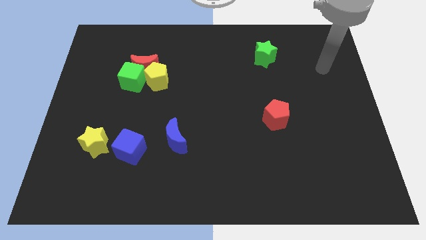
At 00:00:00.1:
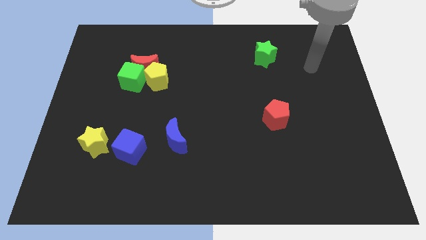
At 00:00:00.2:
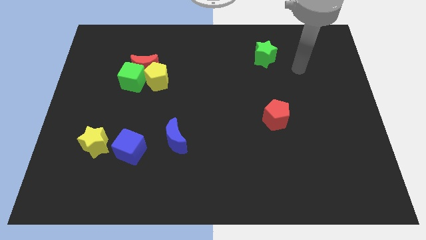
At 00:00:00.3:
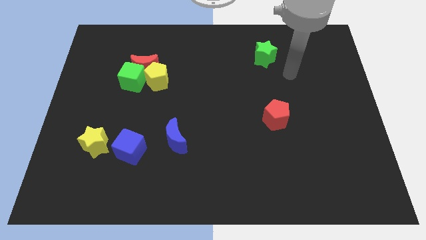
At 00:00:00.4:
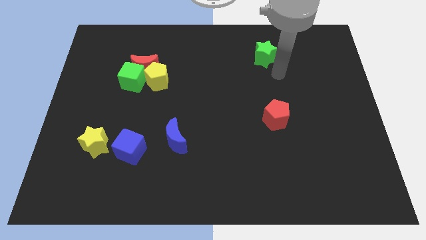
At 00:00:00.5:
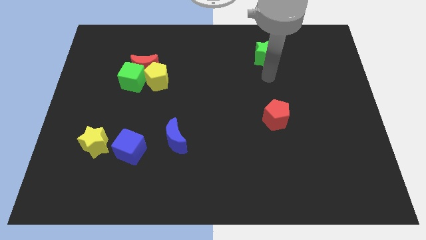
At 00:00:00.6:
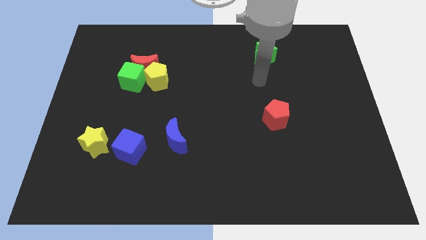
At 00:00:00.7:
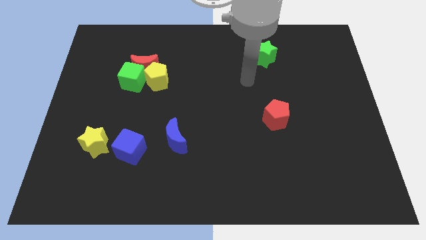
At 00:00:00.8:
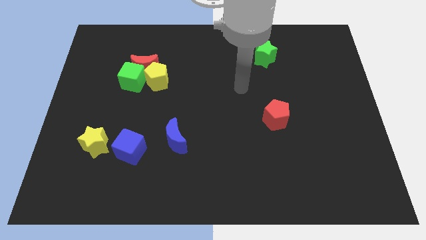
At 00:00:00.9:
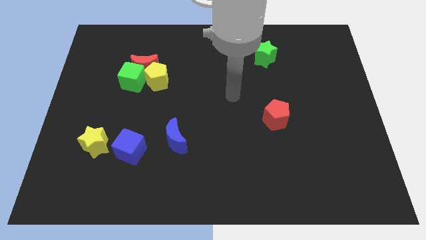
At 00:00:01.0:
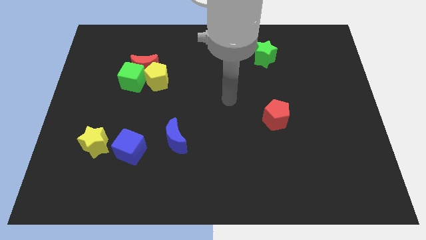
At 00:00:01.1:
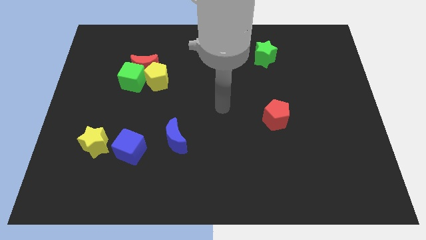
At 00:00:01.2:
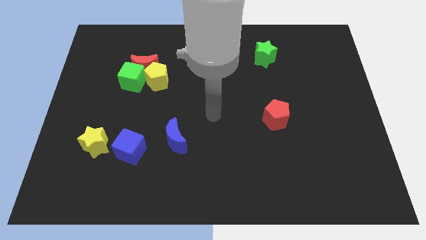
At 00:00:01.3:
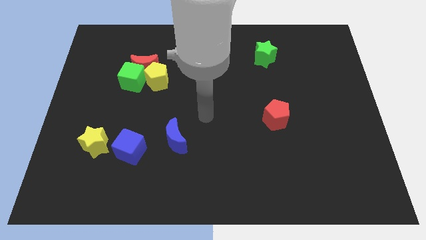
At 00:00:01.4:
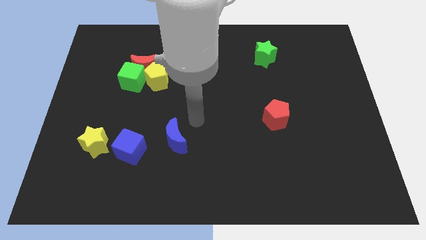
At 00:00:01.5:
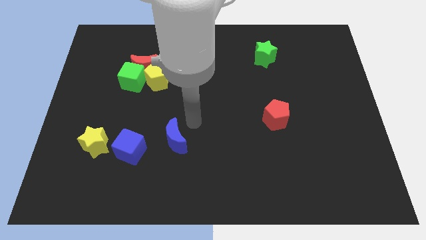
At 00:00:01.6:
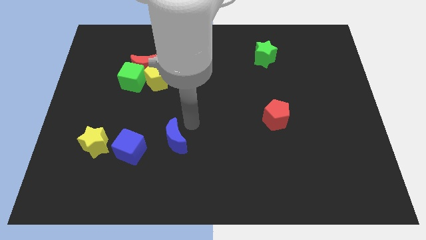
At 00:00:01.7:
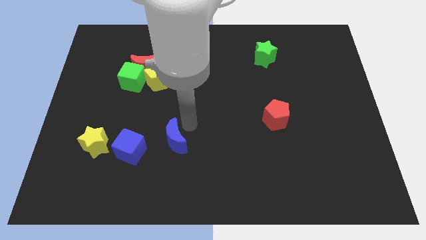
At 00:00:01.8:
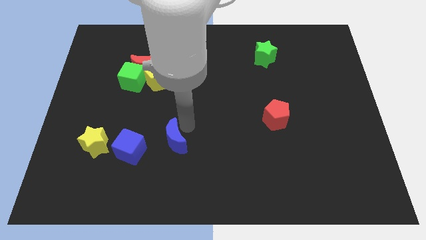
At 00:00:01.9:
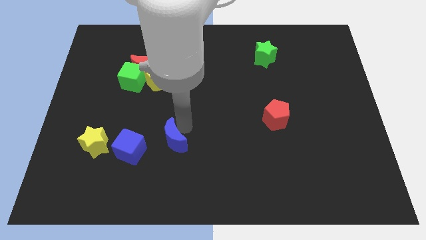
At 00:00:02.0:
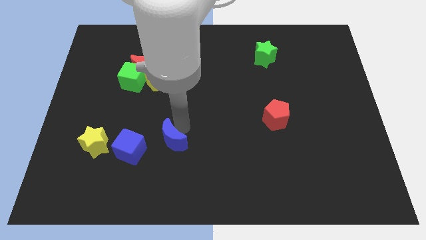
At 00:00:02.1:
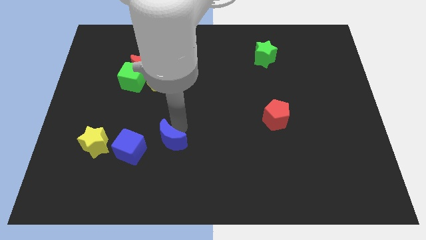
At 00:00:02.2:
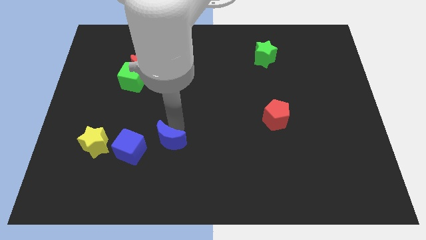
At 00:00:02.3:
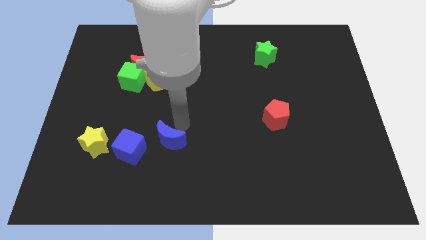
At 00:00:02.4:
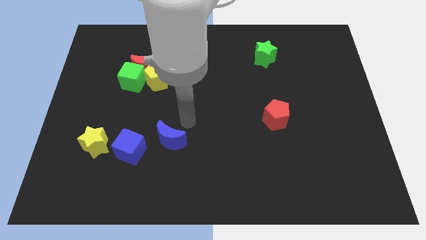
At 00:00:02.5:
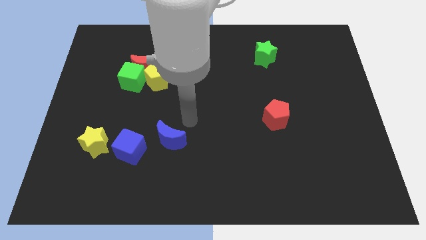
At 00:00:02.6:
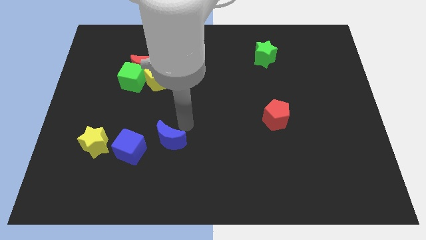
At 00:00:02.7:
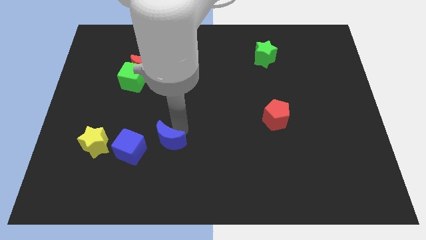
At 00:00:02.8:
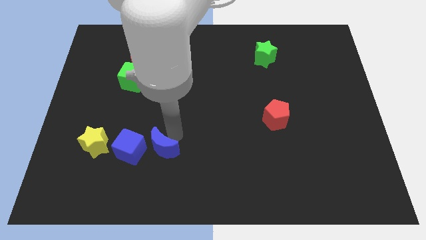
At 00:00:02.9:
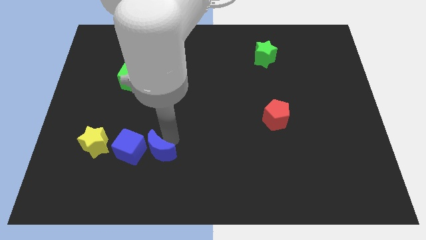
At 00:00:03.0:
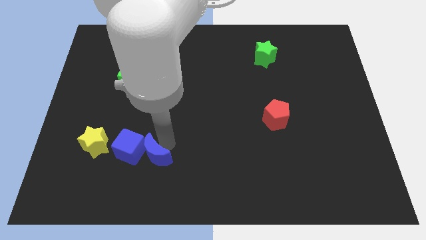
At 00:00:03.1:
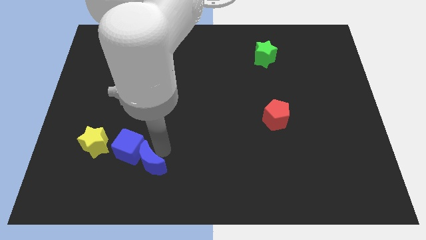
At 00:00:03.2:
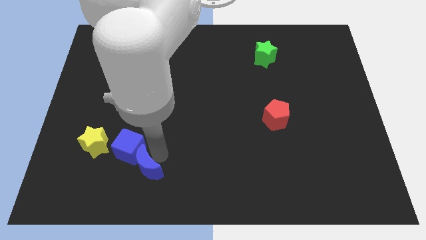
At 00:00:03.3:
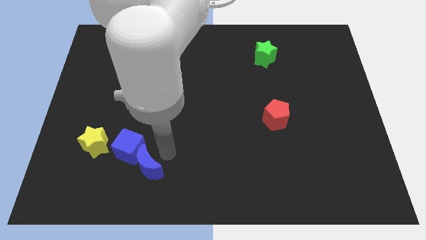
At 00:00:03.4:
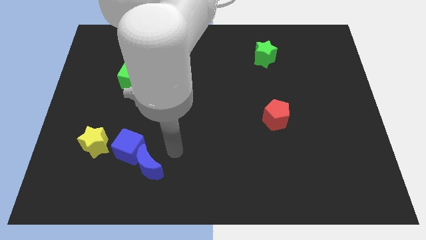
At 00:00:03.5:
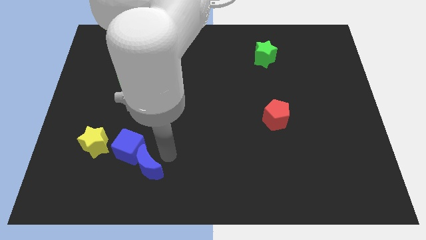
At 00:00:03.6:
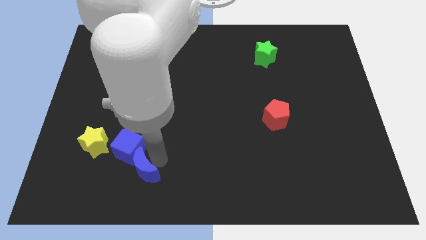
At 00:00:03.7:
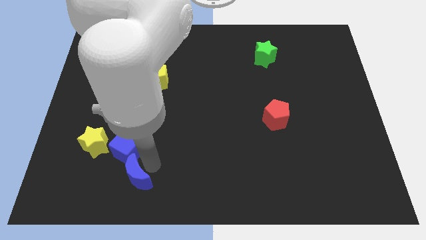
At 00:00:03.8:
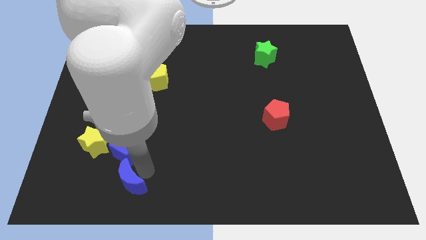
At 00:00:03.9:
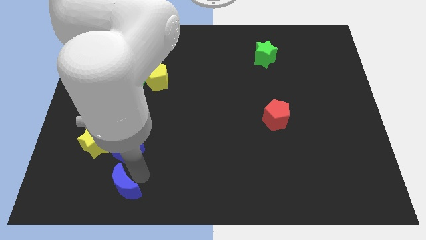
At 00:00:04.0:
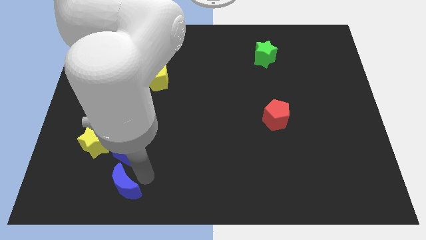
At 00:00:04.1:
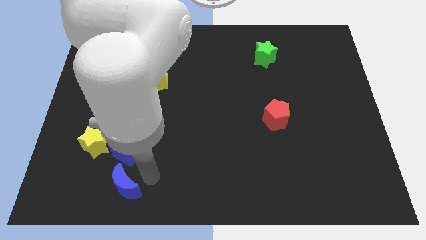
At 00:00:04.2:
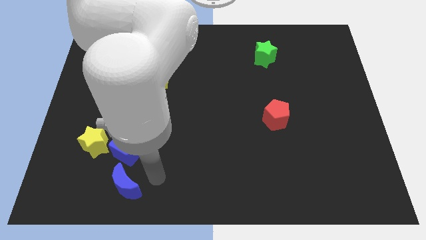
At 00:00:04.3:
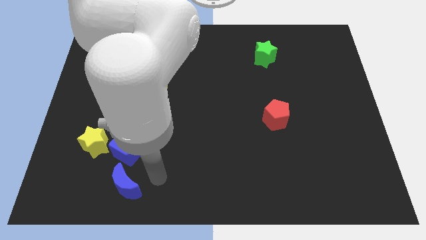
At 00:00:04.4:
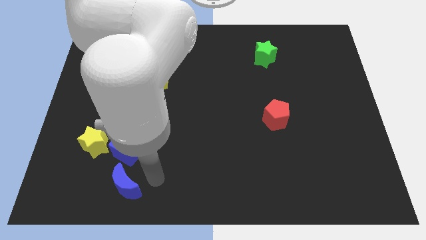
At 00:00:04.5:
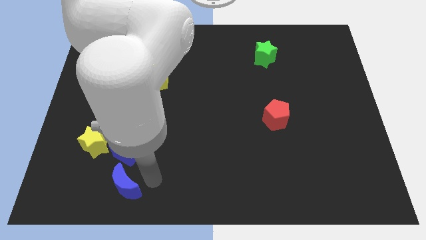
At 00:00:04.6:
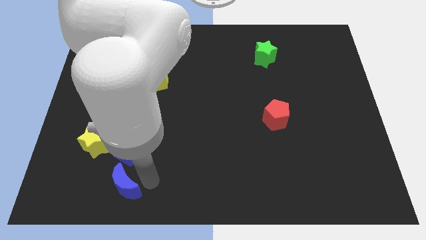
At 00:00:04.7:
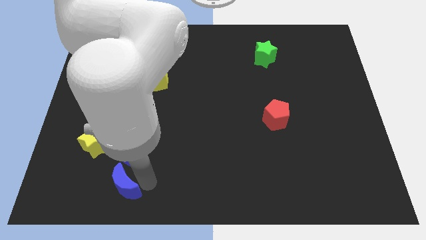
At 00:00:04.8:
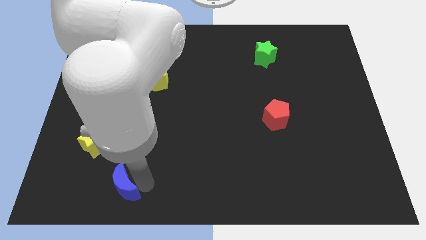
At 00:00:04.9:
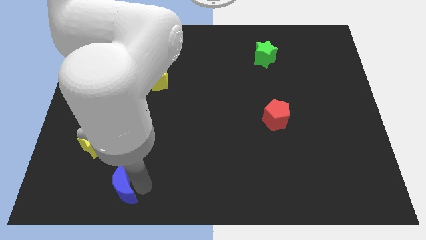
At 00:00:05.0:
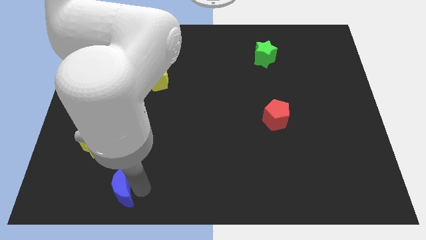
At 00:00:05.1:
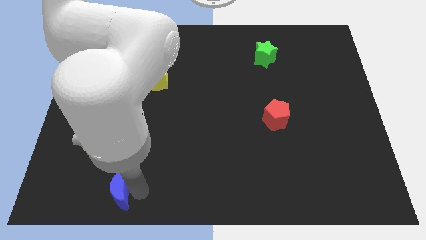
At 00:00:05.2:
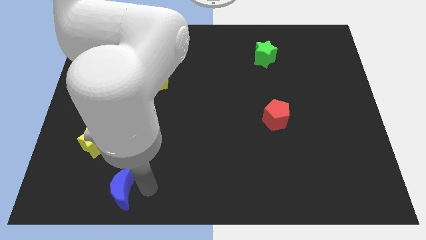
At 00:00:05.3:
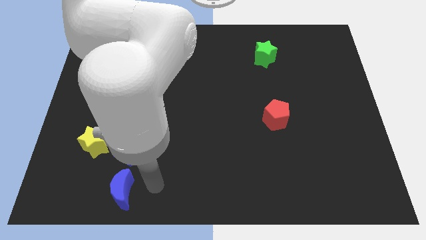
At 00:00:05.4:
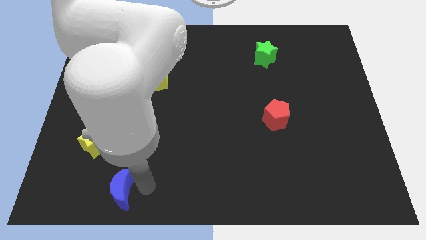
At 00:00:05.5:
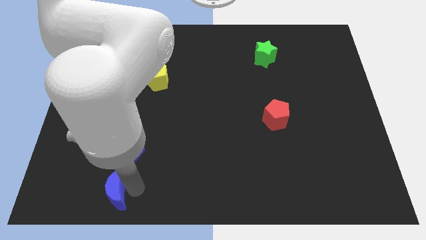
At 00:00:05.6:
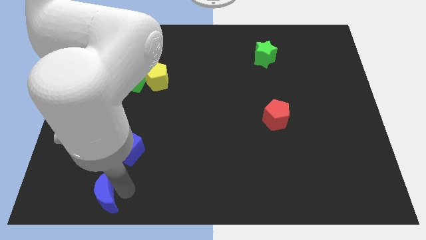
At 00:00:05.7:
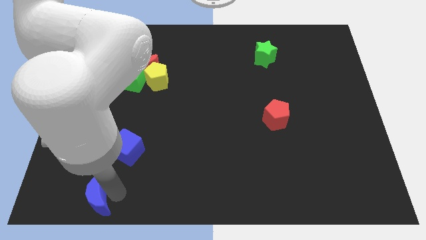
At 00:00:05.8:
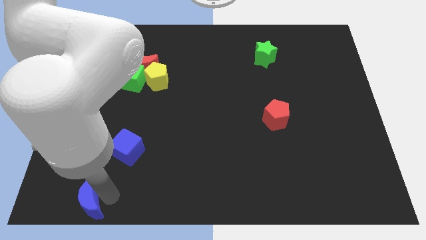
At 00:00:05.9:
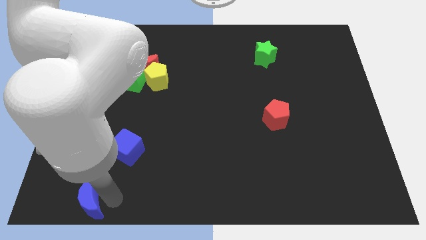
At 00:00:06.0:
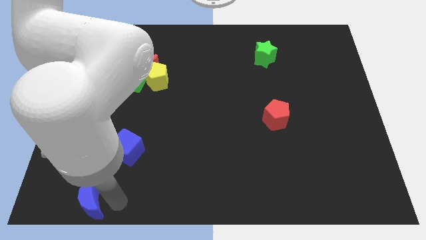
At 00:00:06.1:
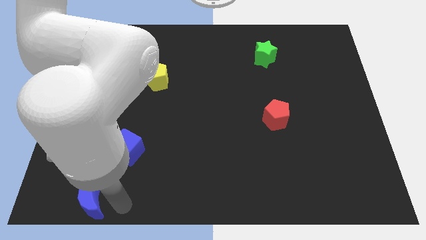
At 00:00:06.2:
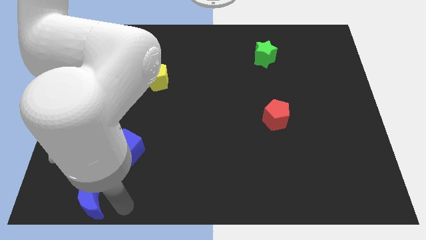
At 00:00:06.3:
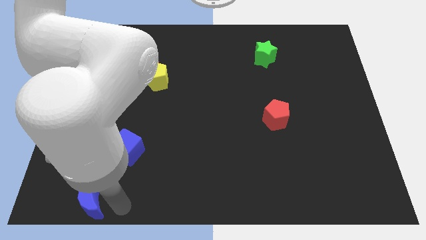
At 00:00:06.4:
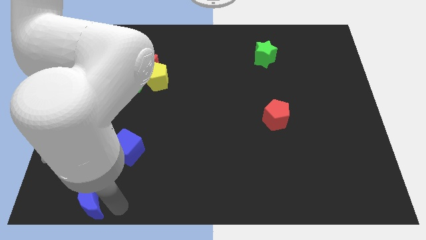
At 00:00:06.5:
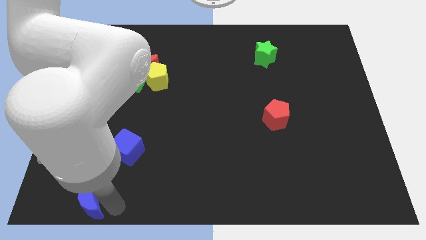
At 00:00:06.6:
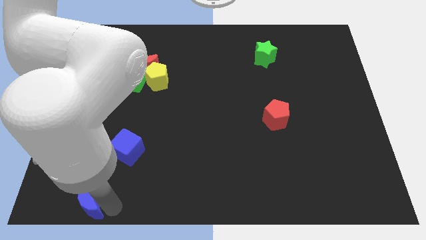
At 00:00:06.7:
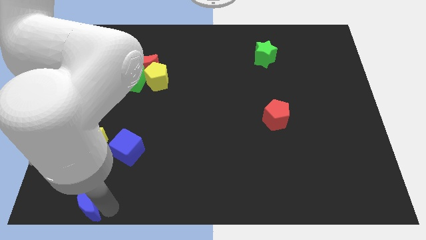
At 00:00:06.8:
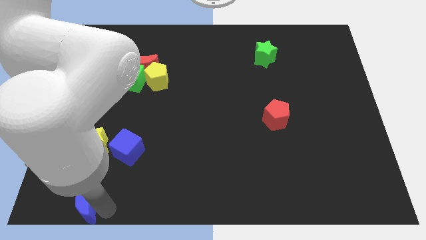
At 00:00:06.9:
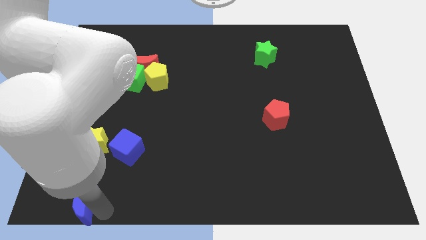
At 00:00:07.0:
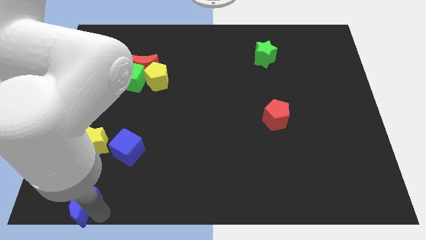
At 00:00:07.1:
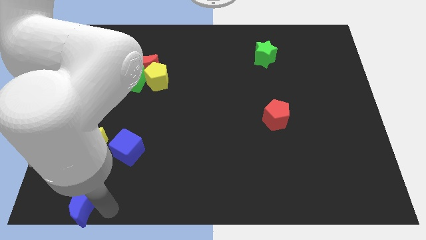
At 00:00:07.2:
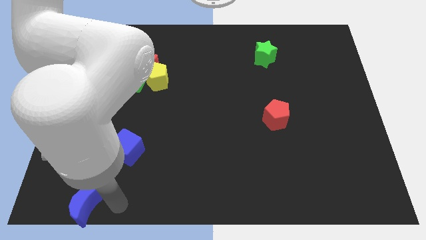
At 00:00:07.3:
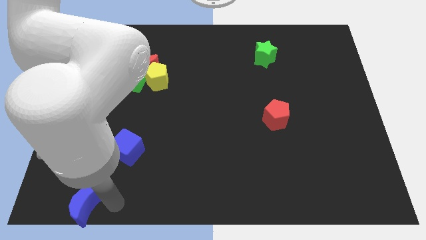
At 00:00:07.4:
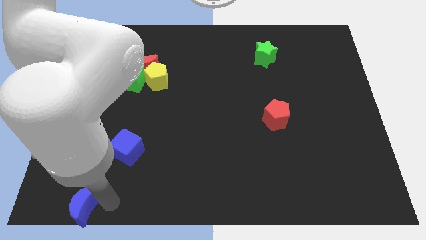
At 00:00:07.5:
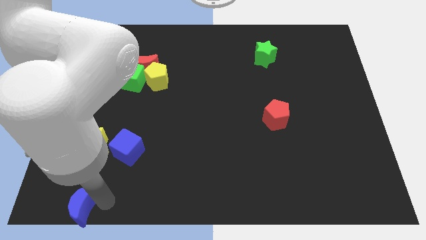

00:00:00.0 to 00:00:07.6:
slide the blue moon to the bottom left corner
